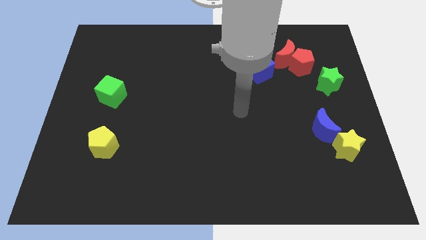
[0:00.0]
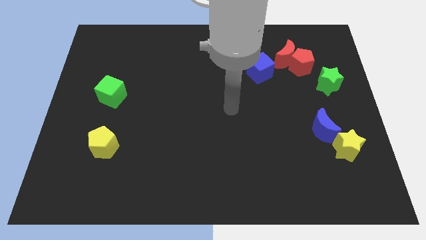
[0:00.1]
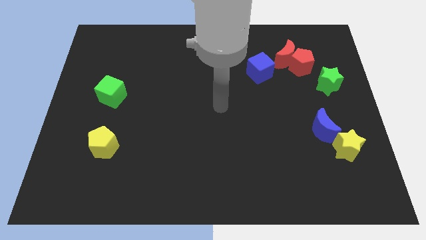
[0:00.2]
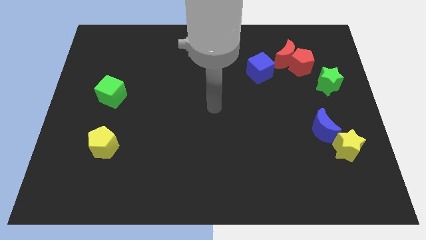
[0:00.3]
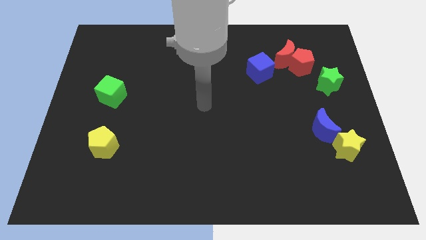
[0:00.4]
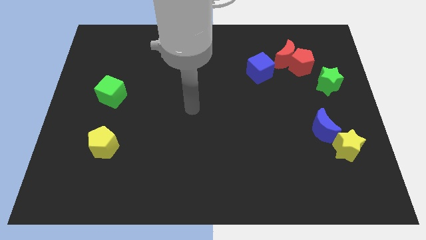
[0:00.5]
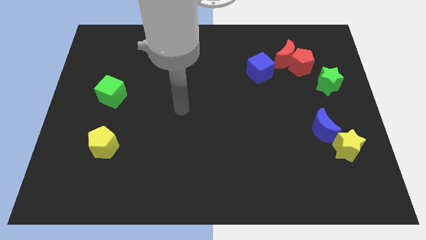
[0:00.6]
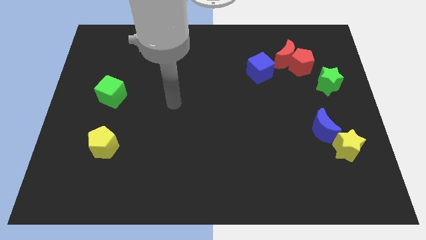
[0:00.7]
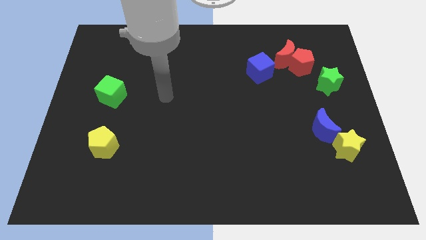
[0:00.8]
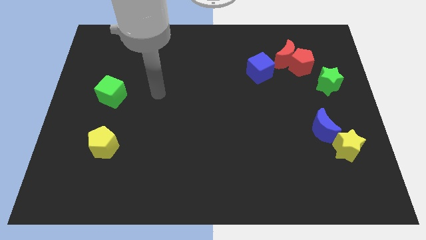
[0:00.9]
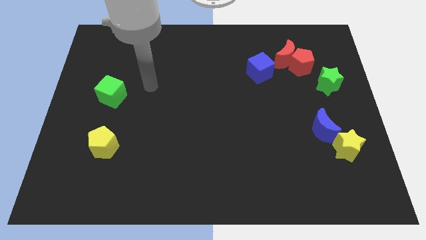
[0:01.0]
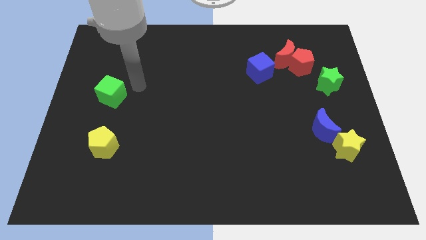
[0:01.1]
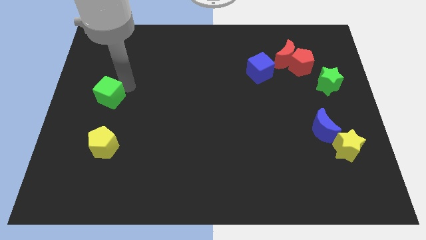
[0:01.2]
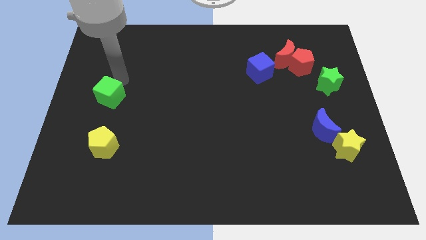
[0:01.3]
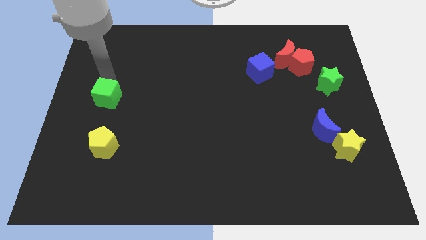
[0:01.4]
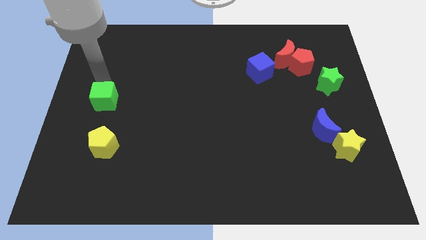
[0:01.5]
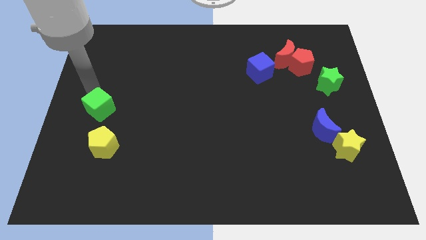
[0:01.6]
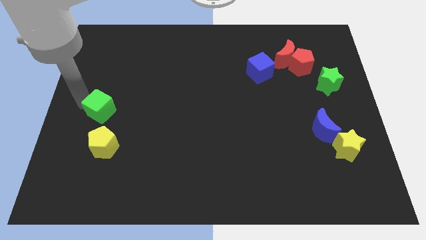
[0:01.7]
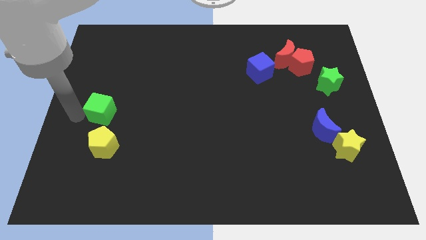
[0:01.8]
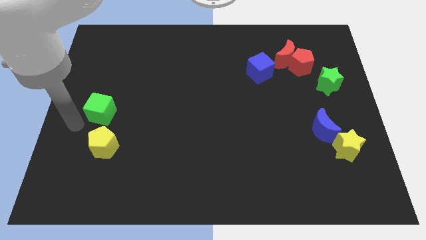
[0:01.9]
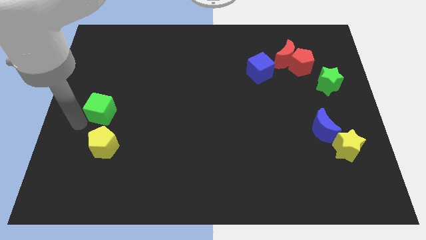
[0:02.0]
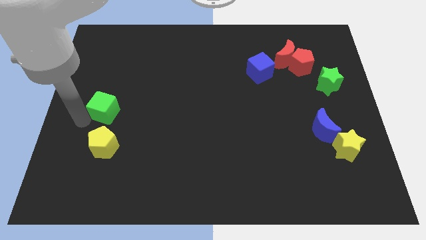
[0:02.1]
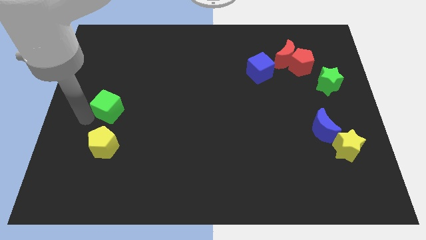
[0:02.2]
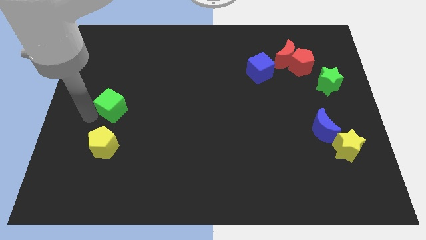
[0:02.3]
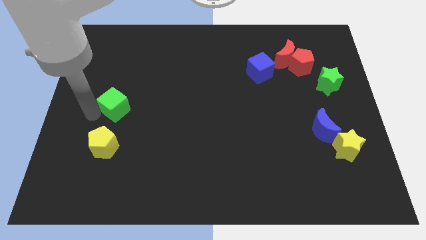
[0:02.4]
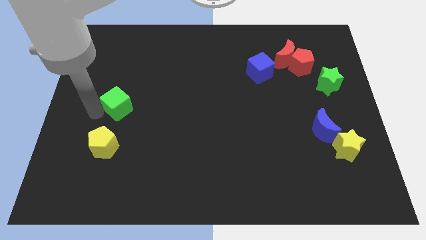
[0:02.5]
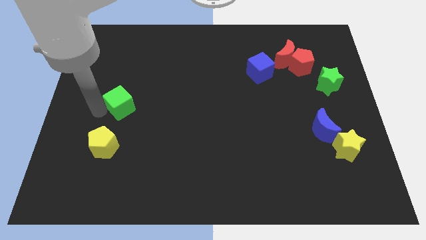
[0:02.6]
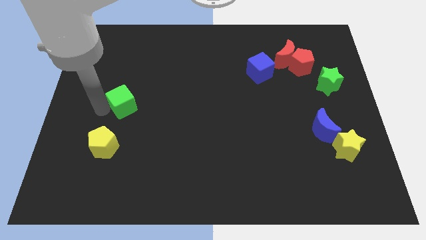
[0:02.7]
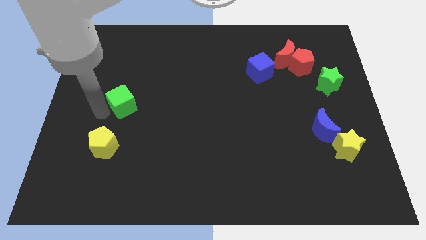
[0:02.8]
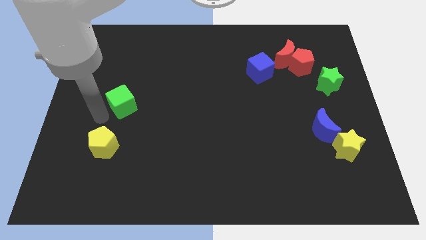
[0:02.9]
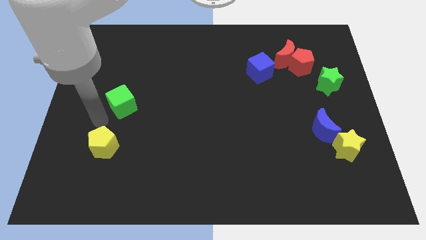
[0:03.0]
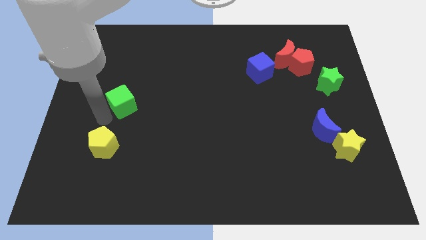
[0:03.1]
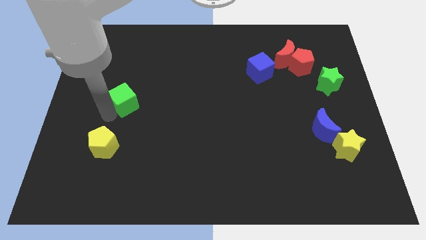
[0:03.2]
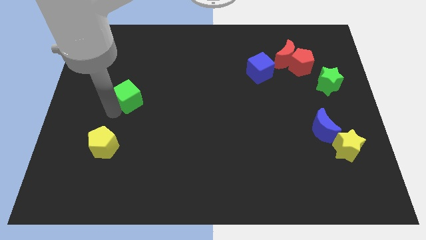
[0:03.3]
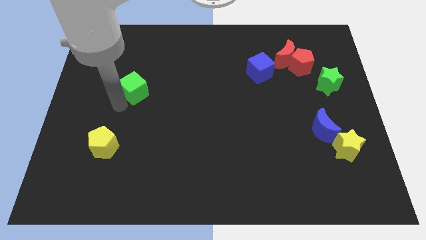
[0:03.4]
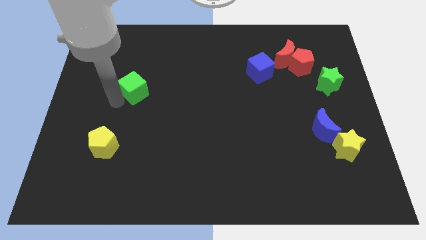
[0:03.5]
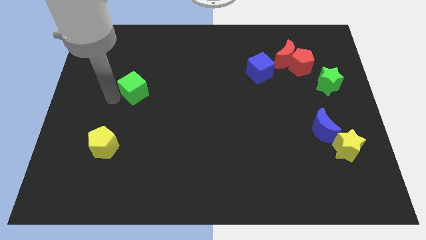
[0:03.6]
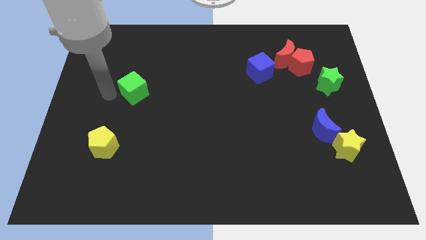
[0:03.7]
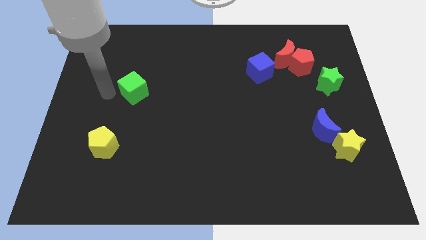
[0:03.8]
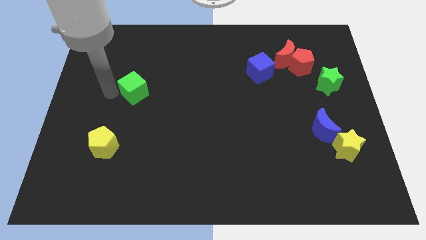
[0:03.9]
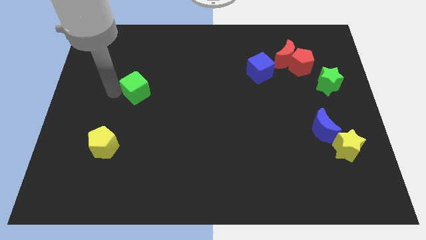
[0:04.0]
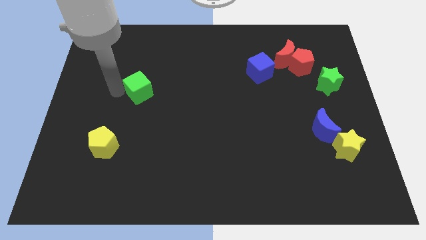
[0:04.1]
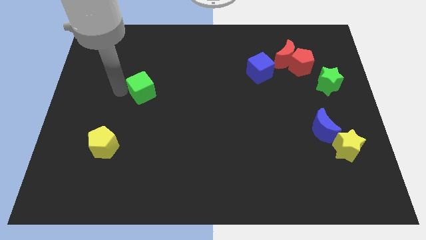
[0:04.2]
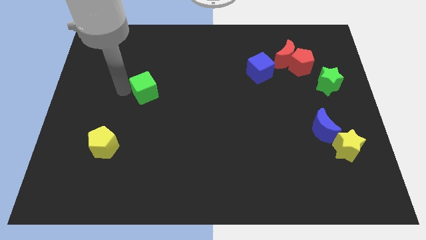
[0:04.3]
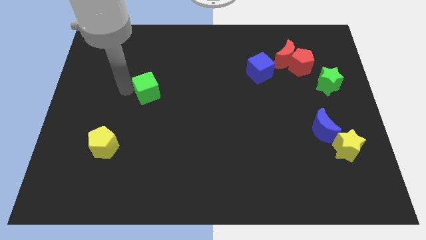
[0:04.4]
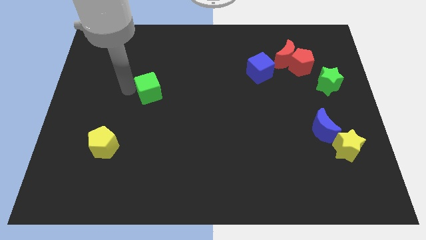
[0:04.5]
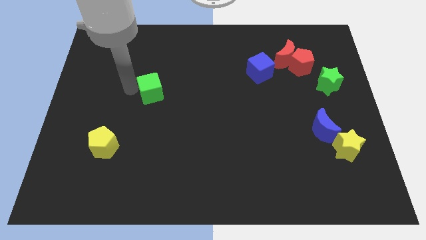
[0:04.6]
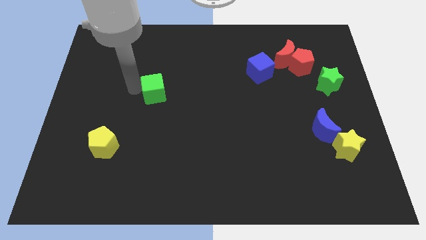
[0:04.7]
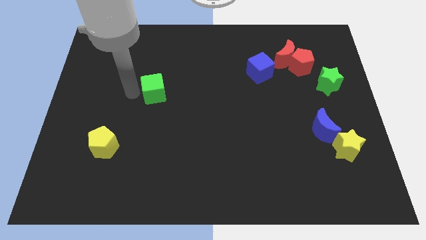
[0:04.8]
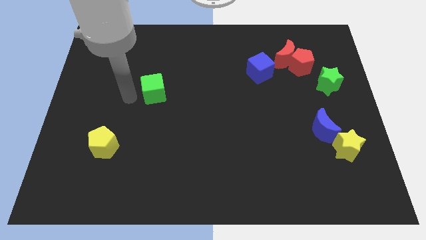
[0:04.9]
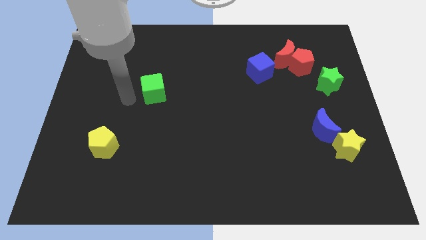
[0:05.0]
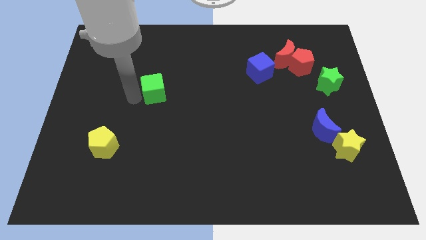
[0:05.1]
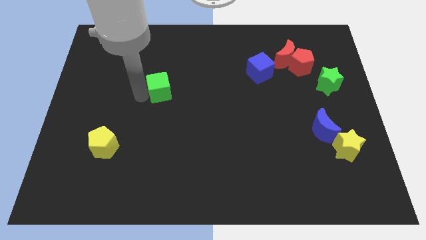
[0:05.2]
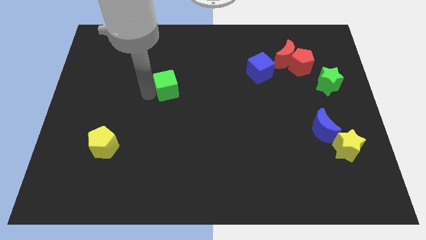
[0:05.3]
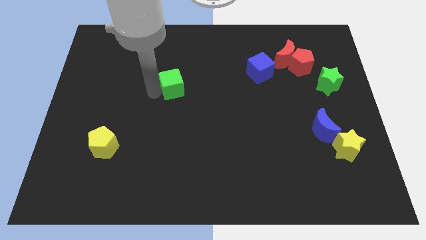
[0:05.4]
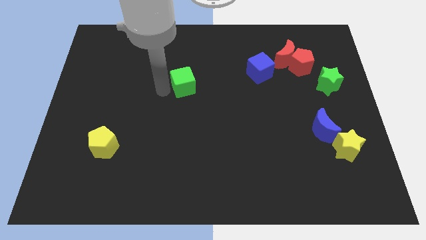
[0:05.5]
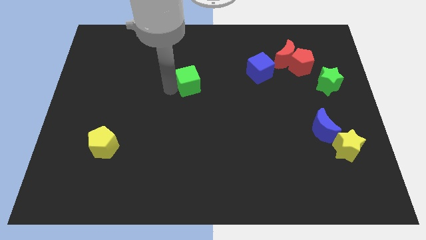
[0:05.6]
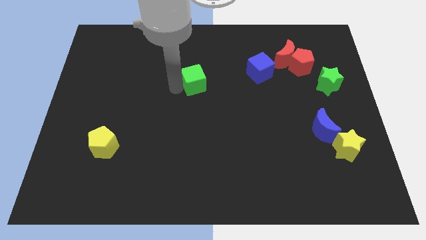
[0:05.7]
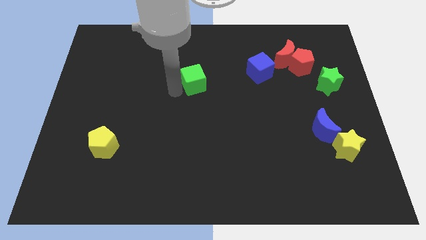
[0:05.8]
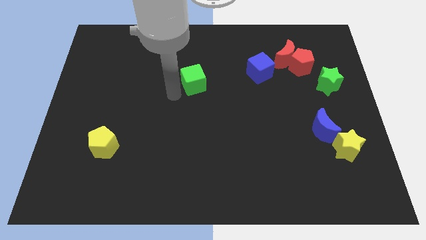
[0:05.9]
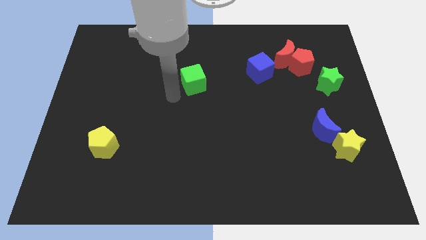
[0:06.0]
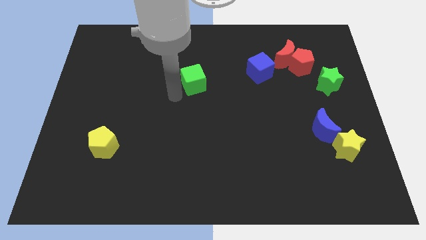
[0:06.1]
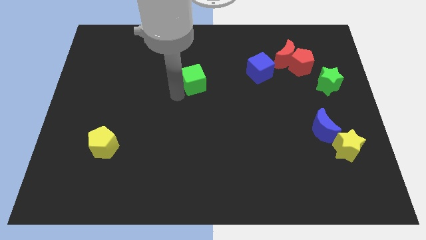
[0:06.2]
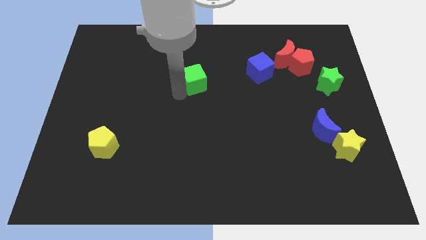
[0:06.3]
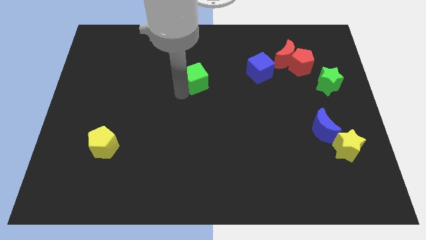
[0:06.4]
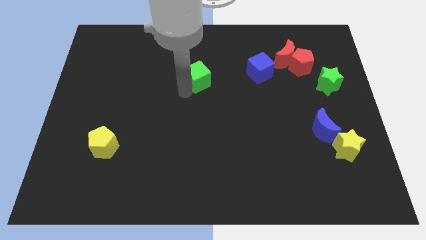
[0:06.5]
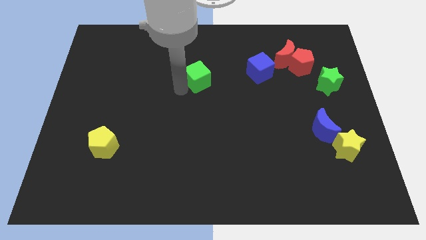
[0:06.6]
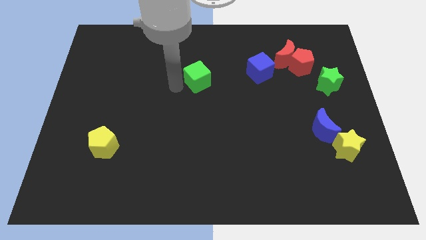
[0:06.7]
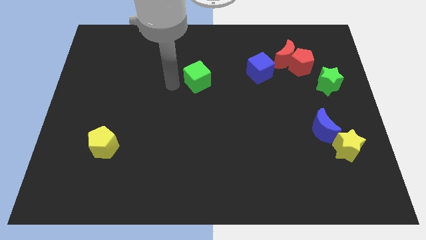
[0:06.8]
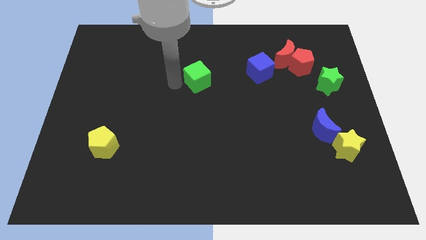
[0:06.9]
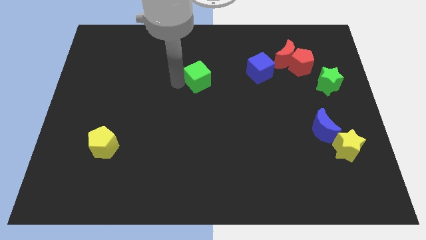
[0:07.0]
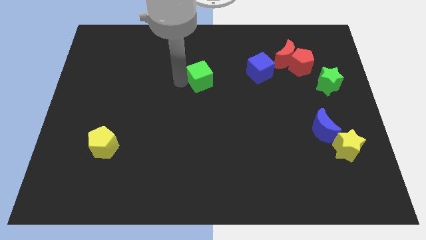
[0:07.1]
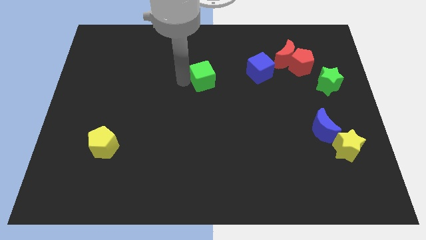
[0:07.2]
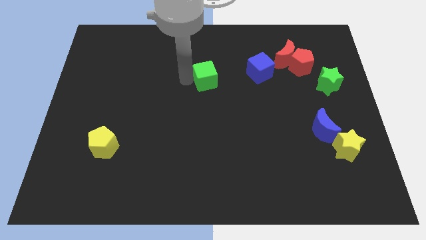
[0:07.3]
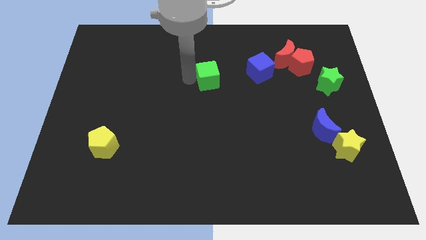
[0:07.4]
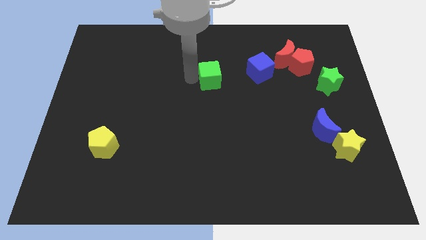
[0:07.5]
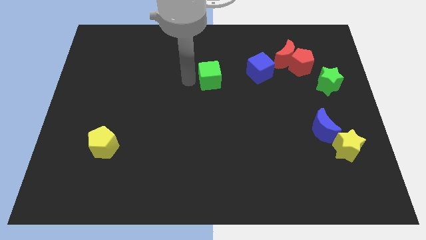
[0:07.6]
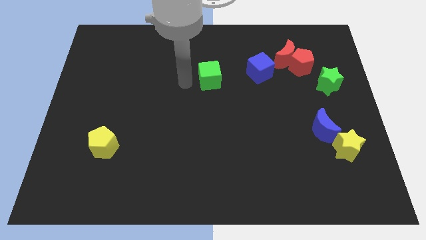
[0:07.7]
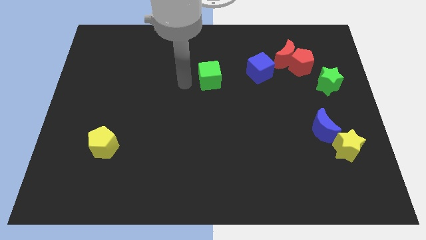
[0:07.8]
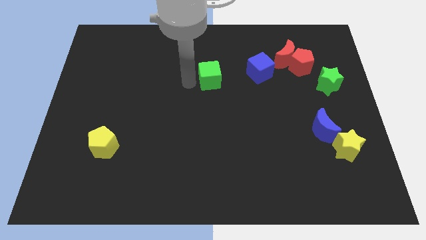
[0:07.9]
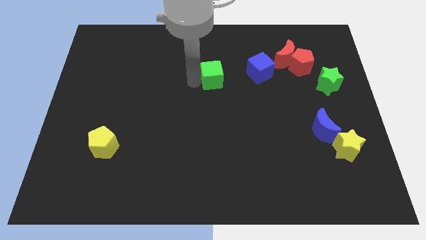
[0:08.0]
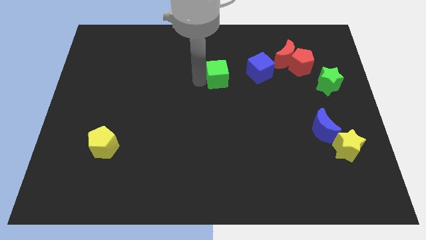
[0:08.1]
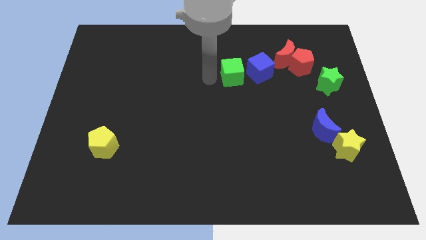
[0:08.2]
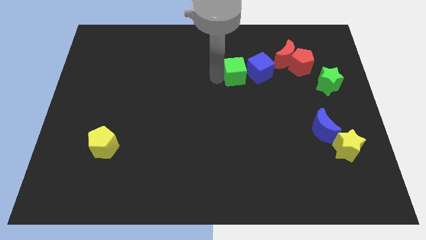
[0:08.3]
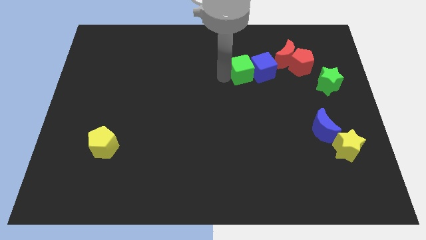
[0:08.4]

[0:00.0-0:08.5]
push the green cube towards the blue cube
